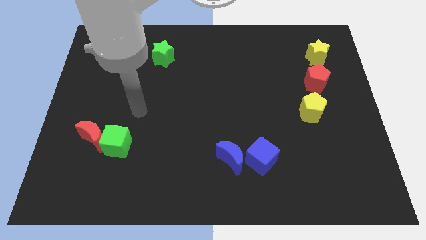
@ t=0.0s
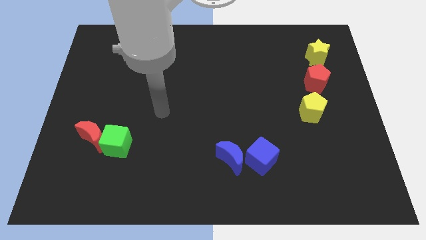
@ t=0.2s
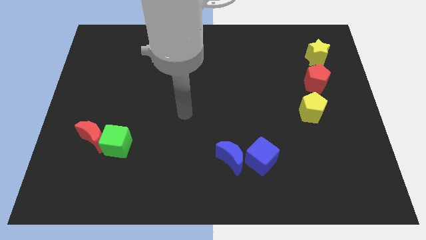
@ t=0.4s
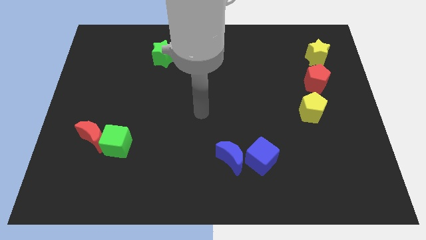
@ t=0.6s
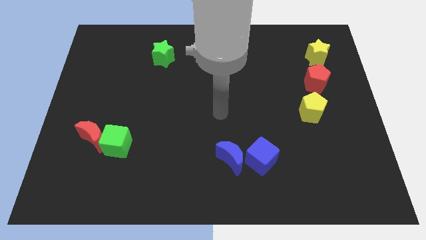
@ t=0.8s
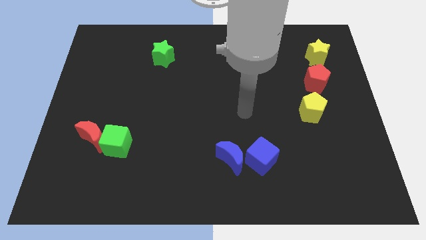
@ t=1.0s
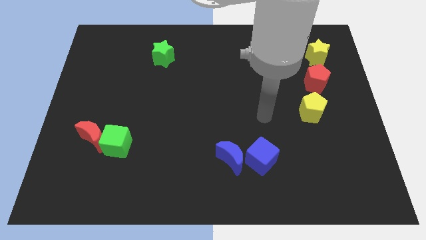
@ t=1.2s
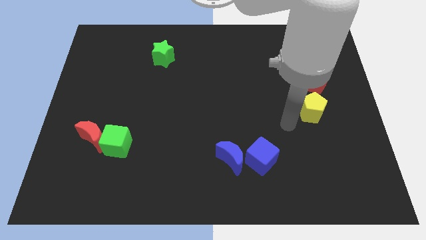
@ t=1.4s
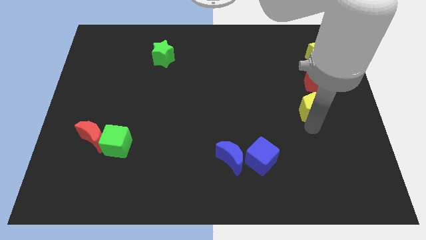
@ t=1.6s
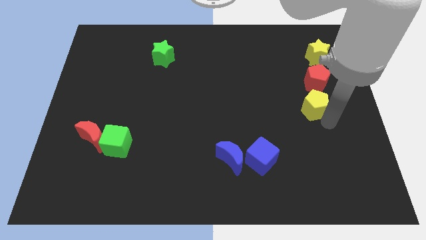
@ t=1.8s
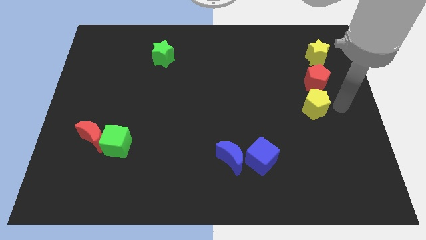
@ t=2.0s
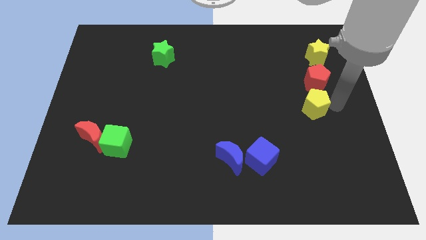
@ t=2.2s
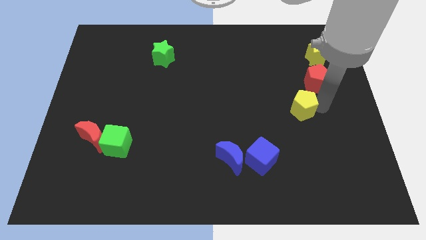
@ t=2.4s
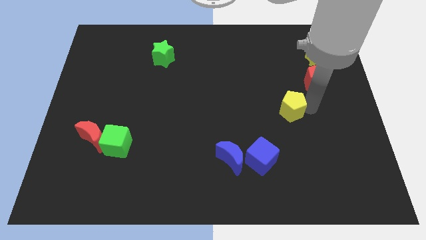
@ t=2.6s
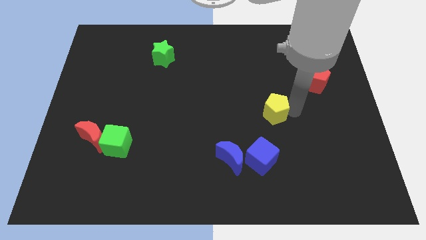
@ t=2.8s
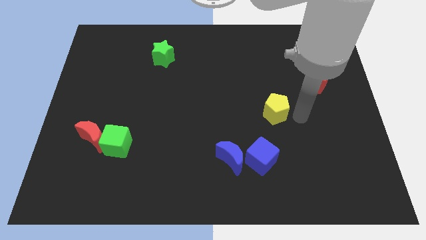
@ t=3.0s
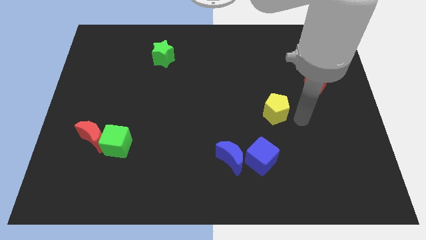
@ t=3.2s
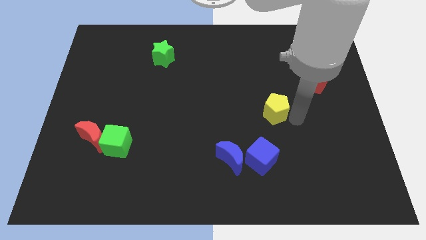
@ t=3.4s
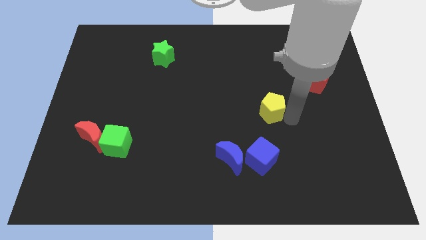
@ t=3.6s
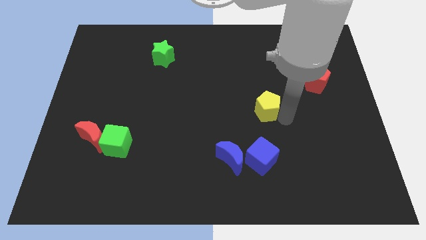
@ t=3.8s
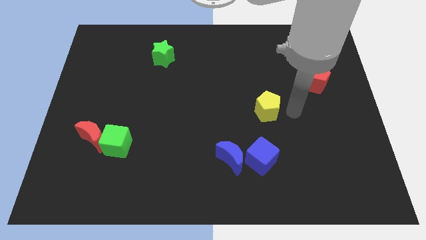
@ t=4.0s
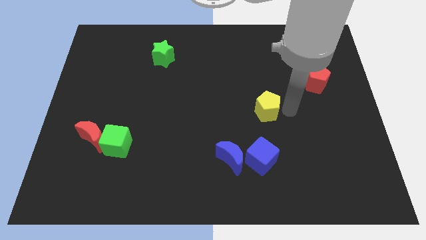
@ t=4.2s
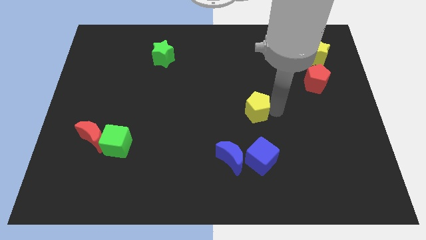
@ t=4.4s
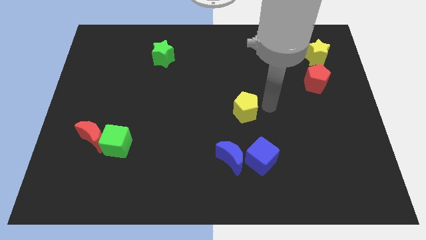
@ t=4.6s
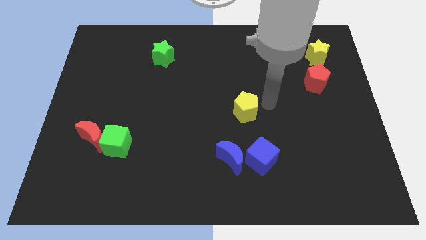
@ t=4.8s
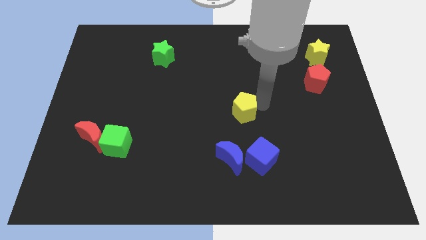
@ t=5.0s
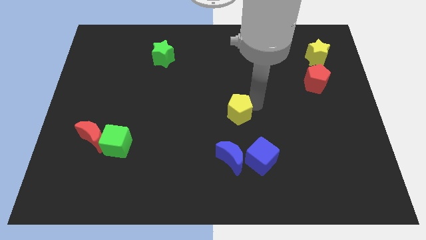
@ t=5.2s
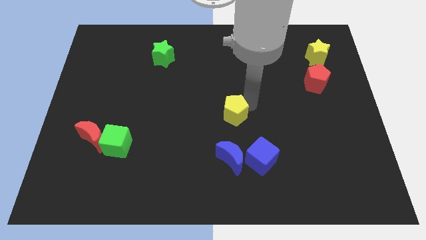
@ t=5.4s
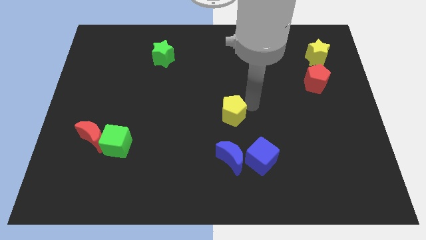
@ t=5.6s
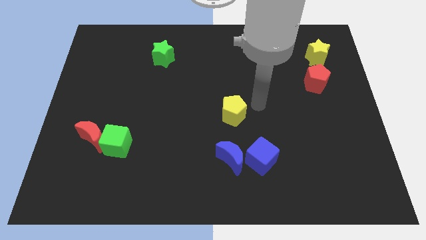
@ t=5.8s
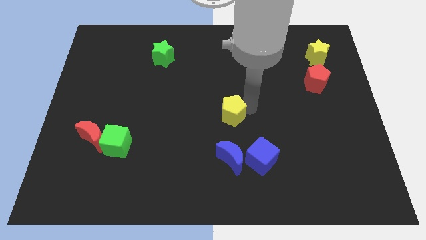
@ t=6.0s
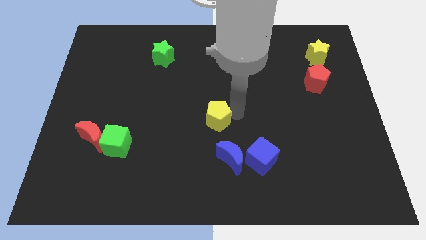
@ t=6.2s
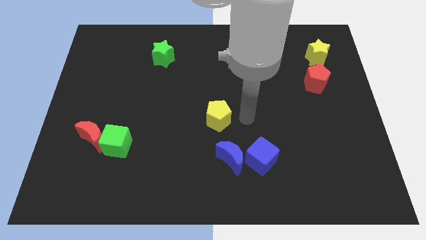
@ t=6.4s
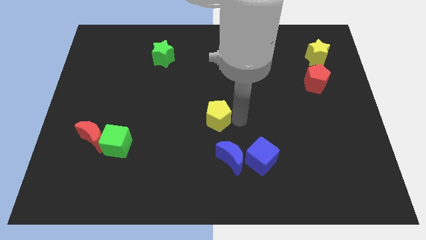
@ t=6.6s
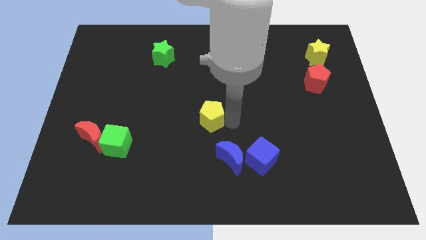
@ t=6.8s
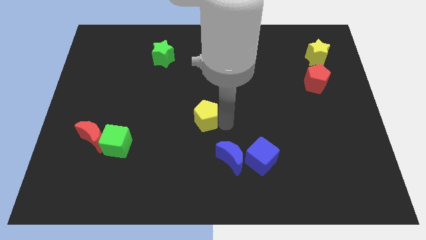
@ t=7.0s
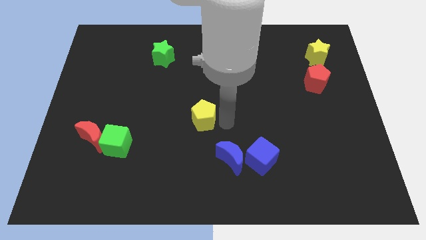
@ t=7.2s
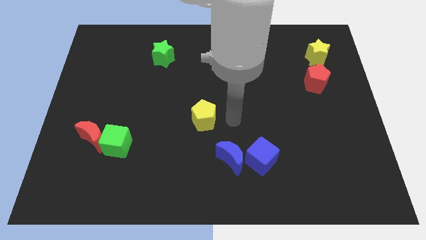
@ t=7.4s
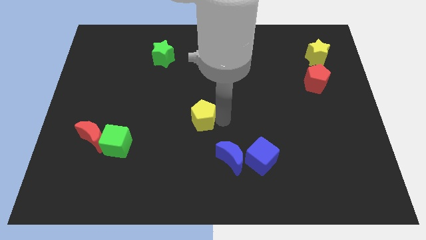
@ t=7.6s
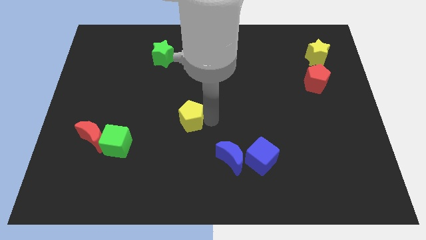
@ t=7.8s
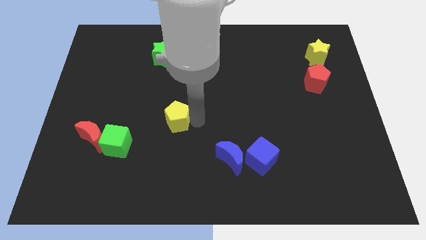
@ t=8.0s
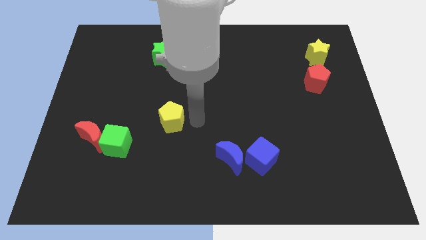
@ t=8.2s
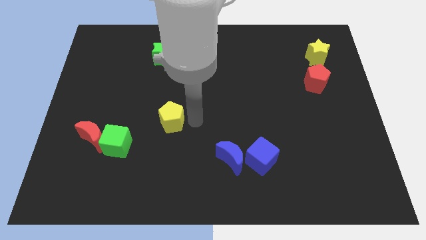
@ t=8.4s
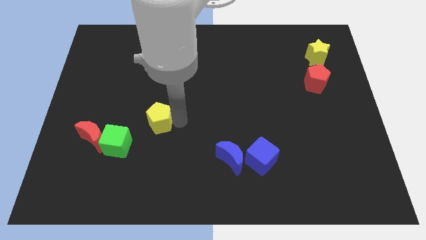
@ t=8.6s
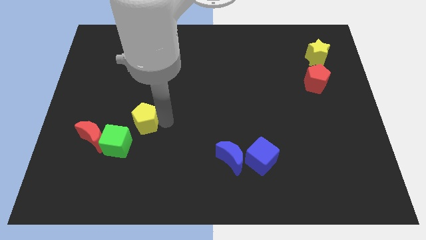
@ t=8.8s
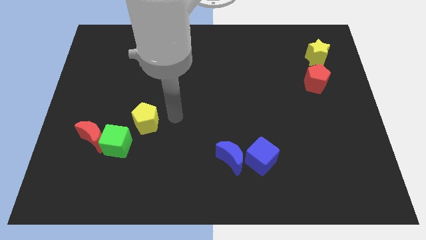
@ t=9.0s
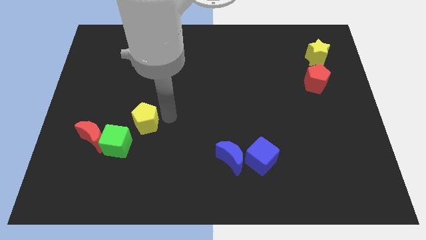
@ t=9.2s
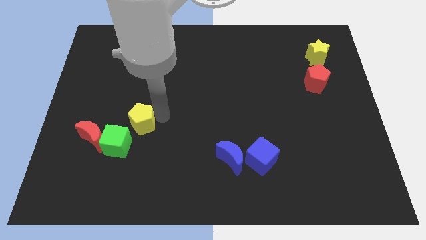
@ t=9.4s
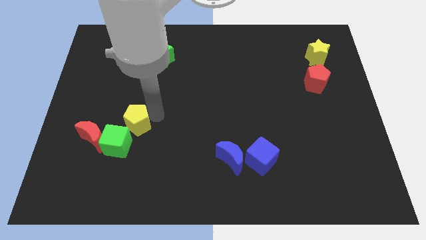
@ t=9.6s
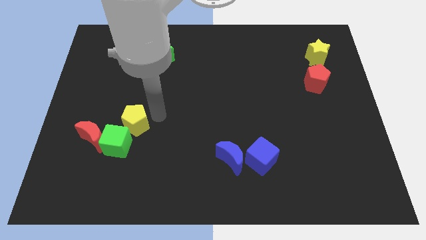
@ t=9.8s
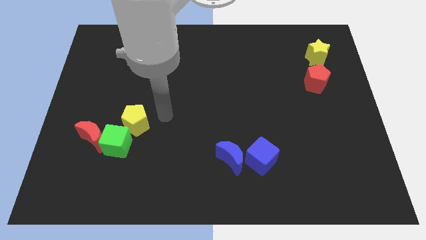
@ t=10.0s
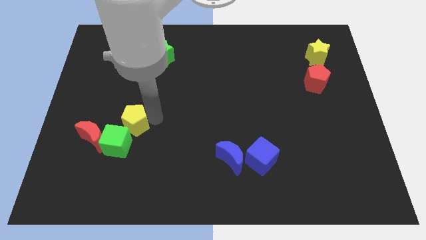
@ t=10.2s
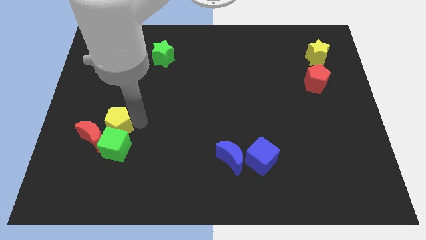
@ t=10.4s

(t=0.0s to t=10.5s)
push the yellow pentagon close to the red moon

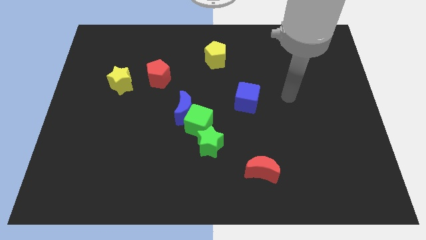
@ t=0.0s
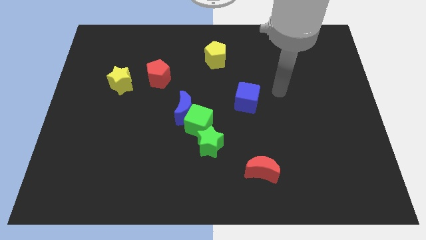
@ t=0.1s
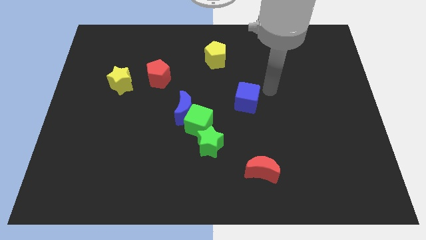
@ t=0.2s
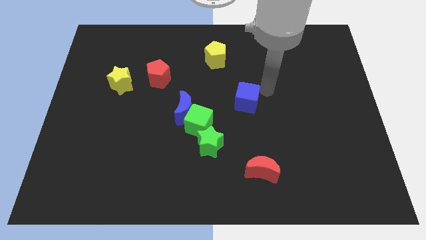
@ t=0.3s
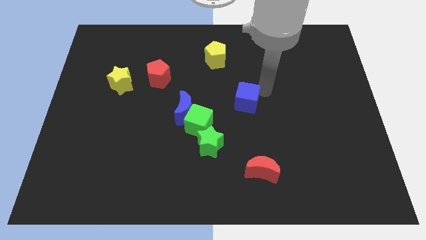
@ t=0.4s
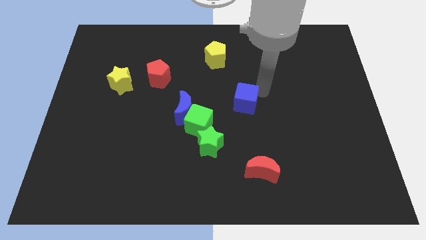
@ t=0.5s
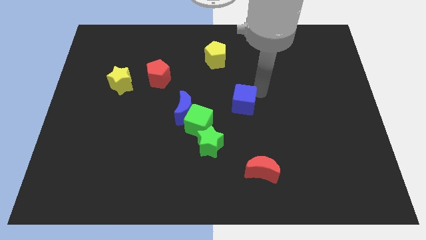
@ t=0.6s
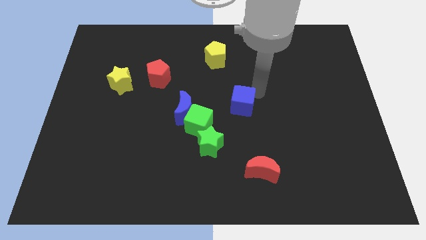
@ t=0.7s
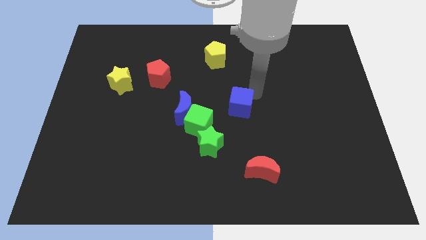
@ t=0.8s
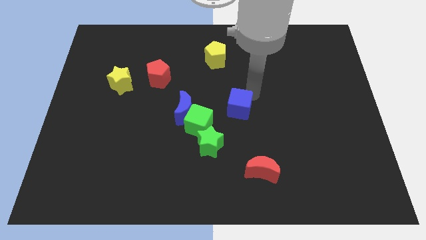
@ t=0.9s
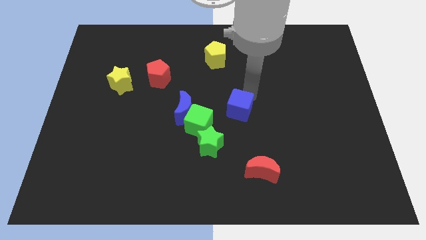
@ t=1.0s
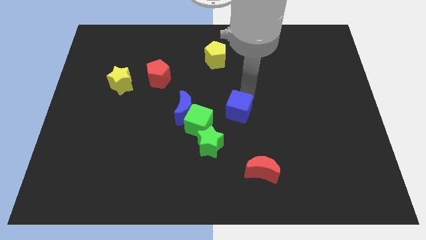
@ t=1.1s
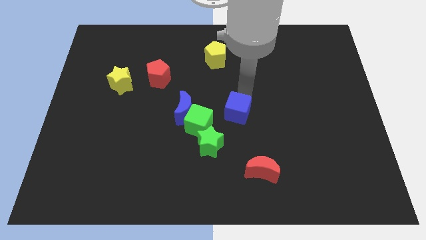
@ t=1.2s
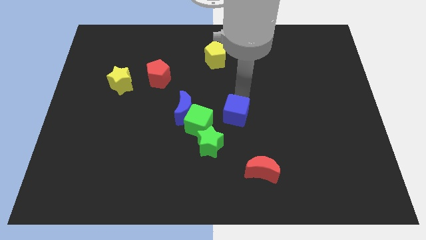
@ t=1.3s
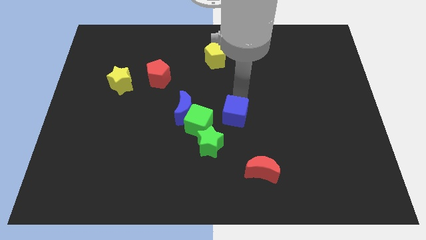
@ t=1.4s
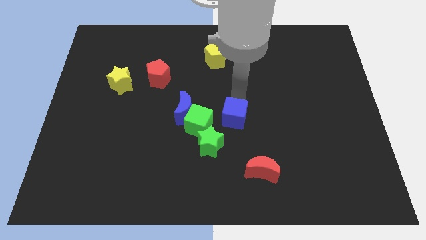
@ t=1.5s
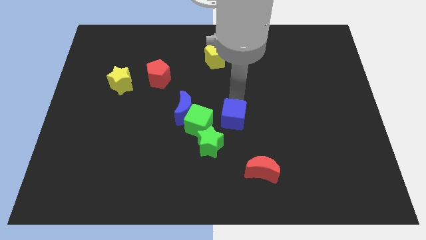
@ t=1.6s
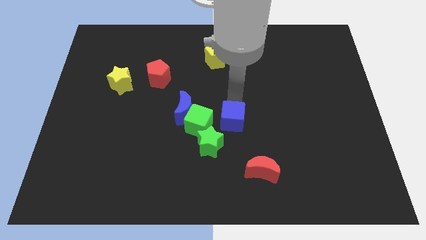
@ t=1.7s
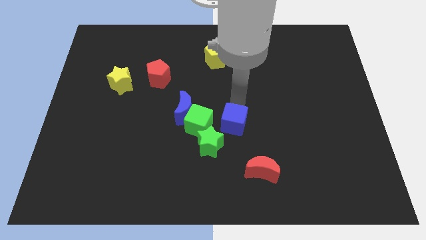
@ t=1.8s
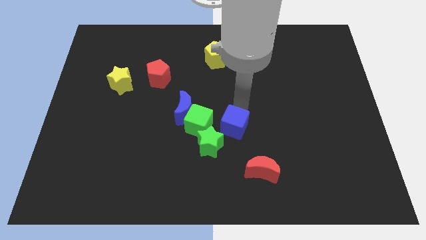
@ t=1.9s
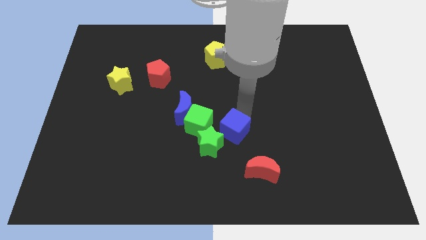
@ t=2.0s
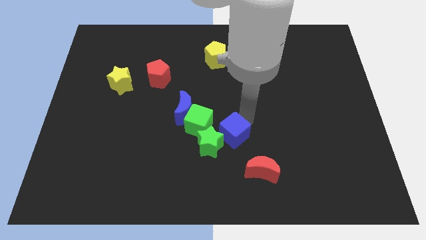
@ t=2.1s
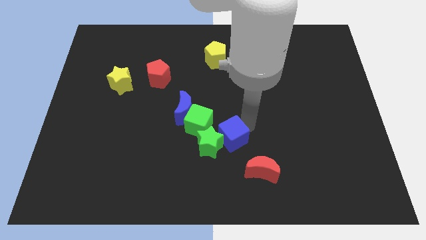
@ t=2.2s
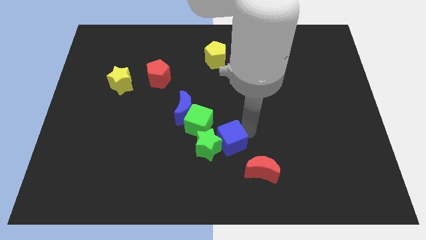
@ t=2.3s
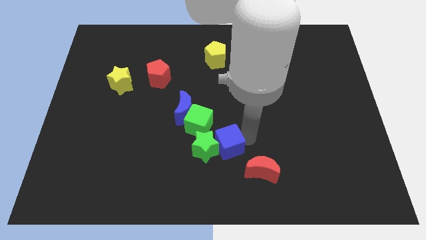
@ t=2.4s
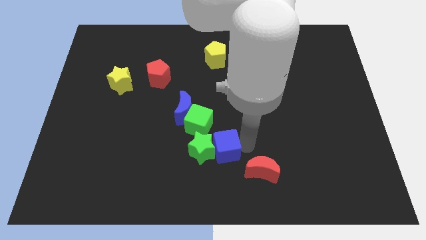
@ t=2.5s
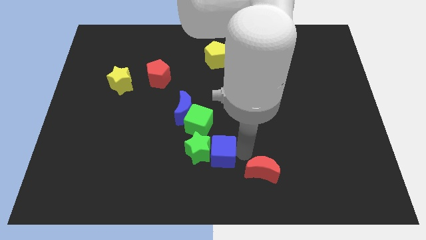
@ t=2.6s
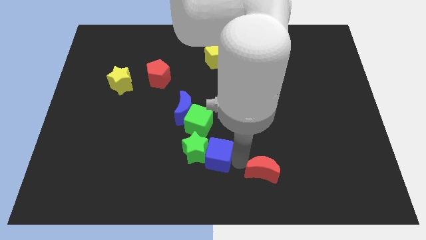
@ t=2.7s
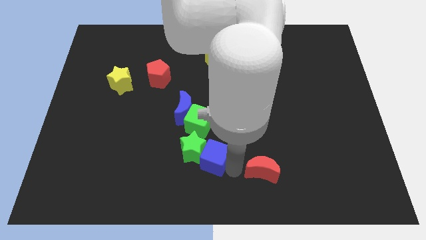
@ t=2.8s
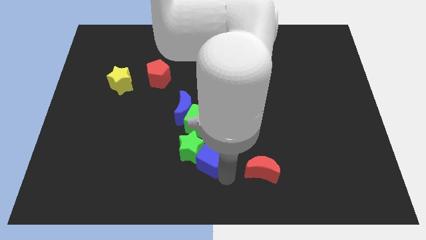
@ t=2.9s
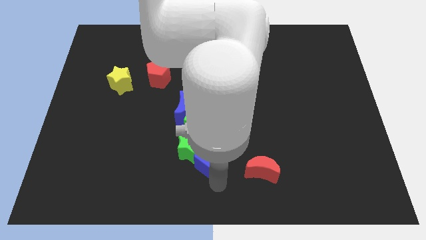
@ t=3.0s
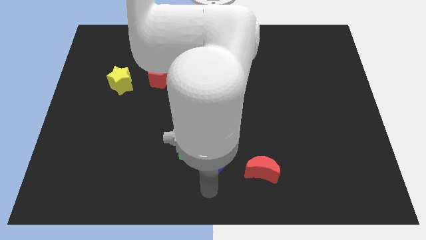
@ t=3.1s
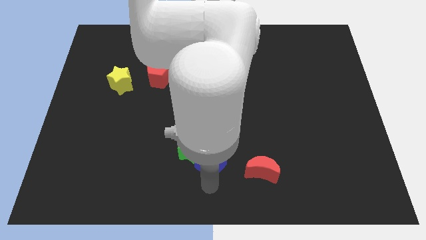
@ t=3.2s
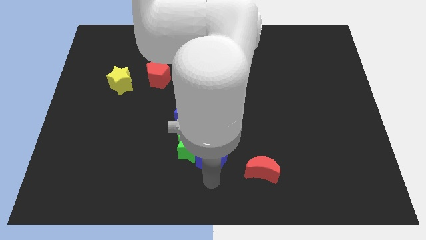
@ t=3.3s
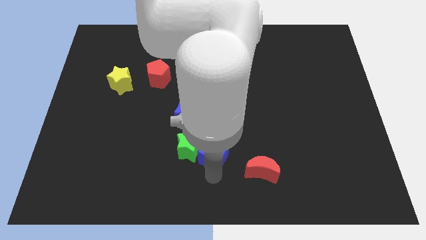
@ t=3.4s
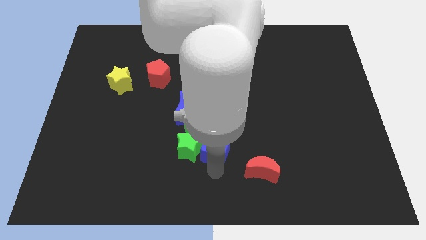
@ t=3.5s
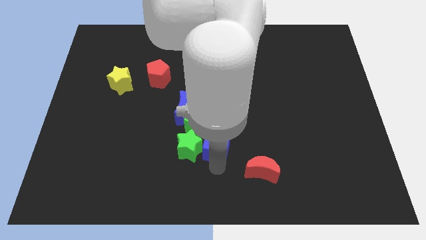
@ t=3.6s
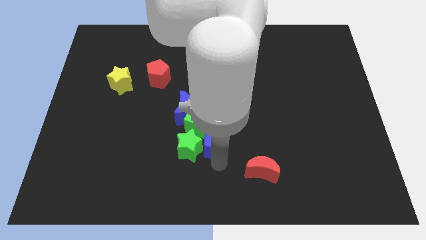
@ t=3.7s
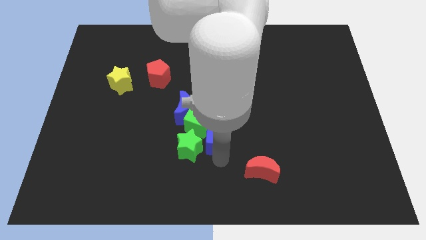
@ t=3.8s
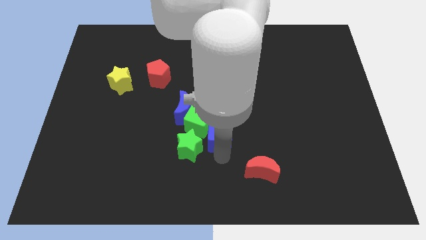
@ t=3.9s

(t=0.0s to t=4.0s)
slide the blue cube to the green cube
